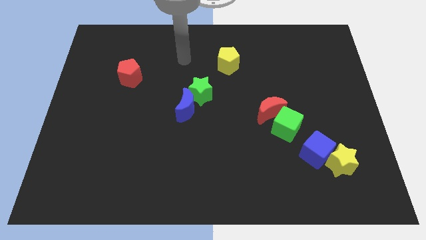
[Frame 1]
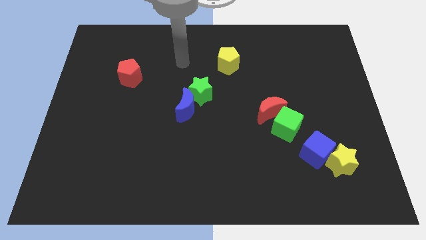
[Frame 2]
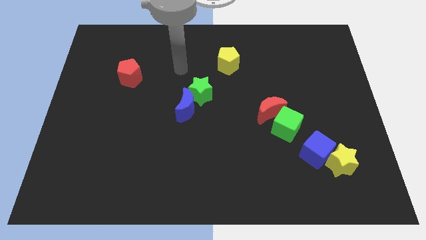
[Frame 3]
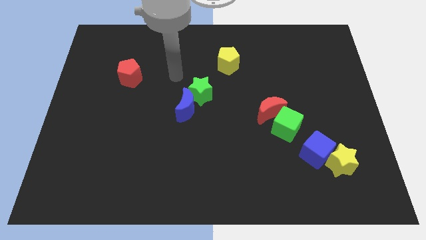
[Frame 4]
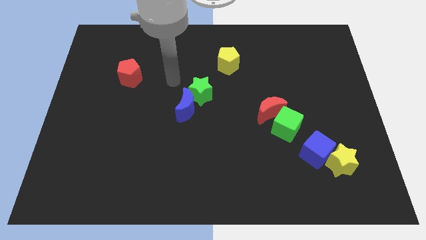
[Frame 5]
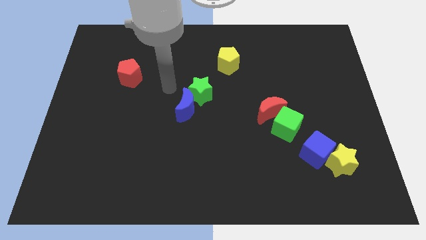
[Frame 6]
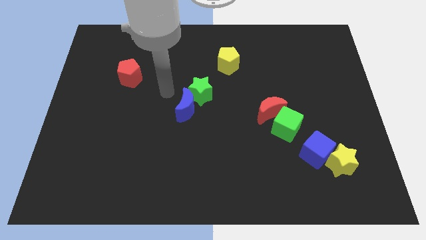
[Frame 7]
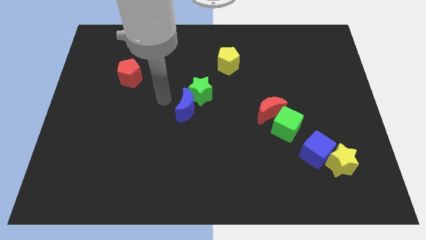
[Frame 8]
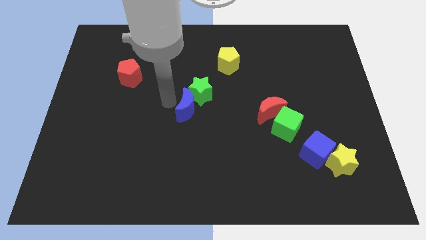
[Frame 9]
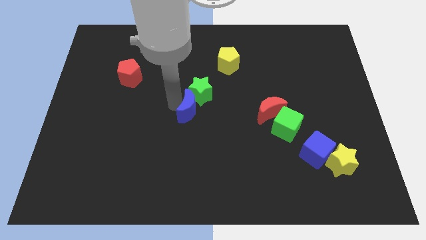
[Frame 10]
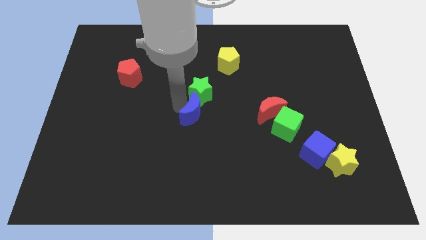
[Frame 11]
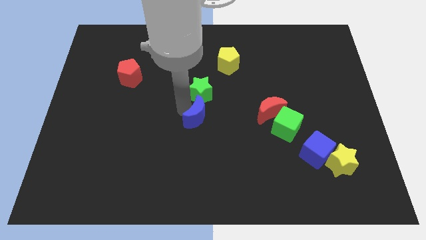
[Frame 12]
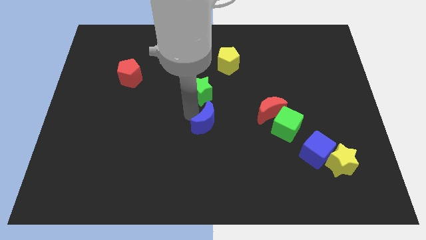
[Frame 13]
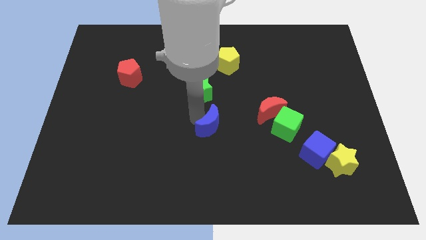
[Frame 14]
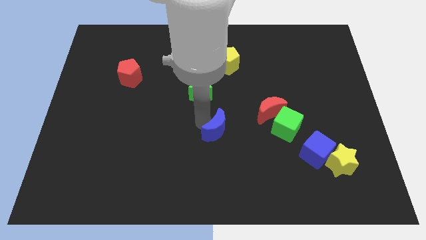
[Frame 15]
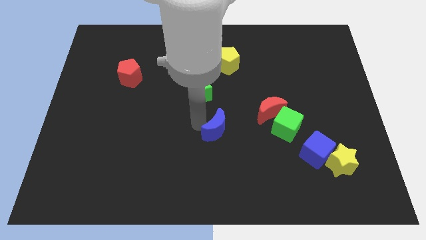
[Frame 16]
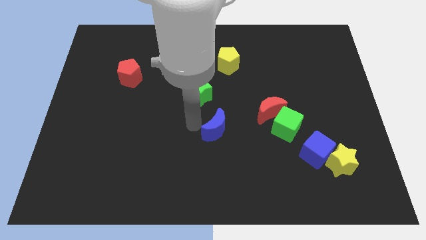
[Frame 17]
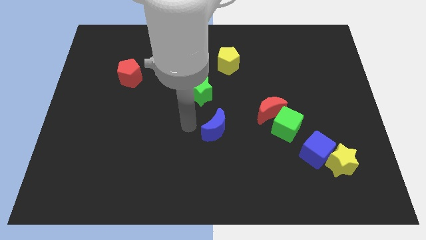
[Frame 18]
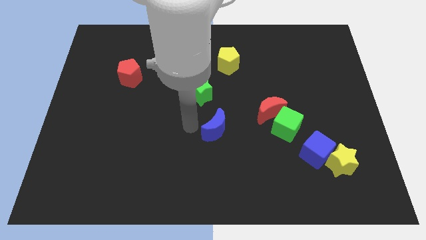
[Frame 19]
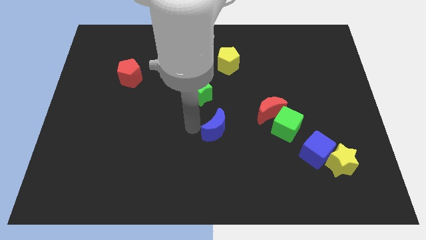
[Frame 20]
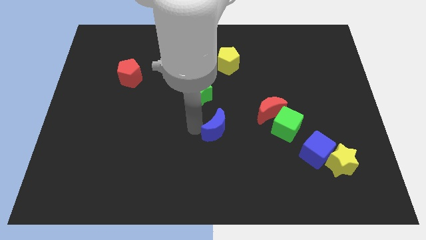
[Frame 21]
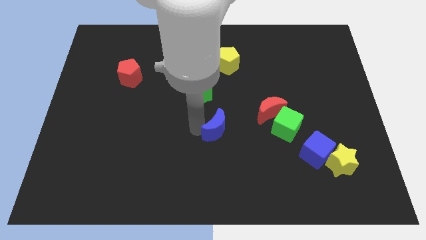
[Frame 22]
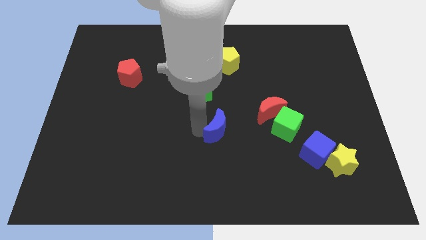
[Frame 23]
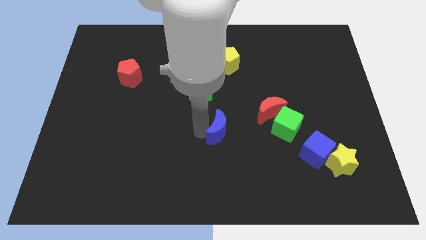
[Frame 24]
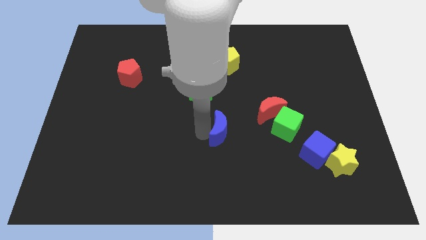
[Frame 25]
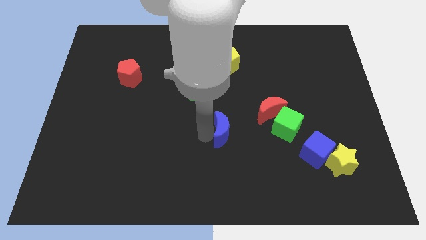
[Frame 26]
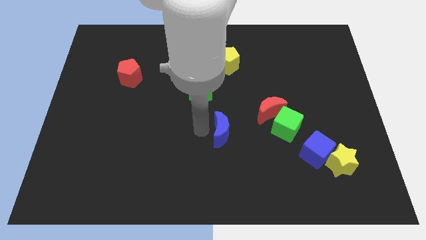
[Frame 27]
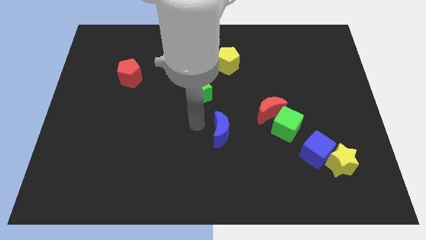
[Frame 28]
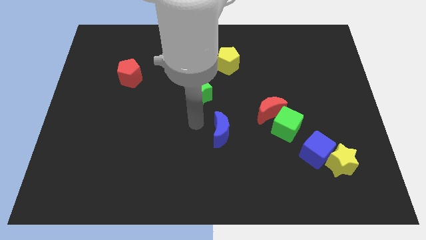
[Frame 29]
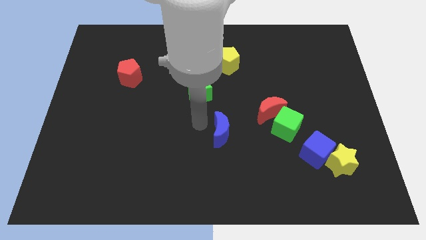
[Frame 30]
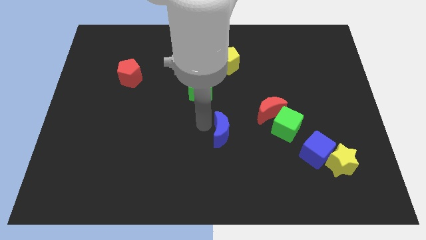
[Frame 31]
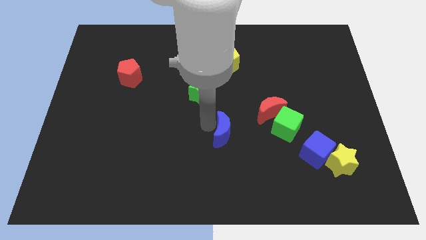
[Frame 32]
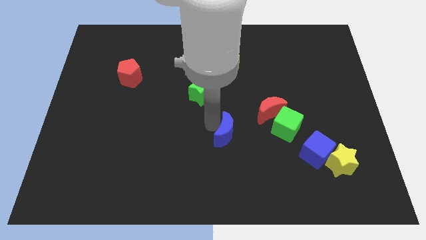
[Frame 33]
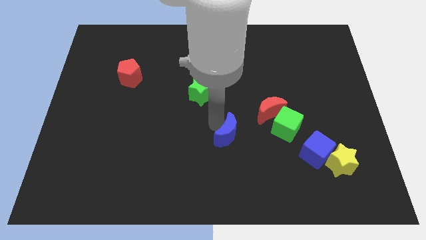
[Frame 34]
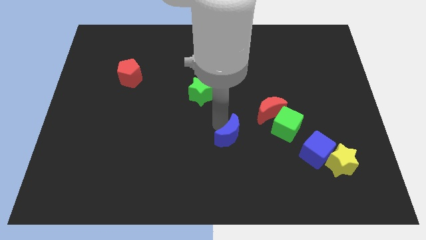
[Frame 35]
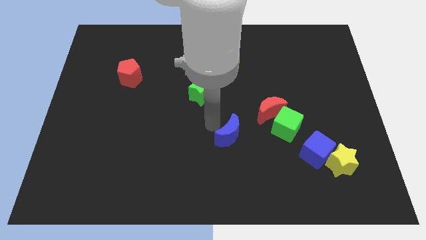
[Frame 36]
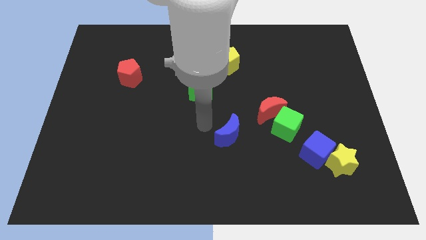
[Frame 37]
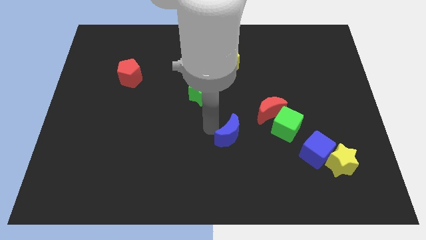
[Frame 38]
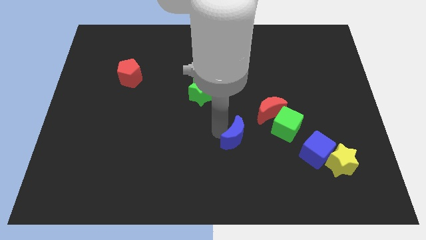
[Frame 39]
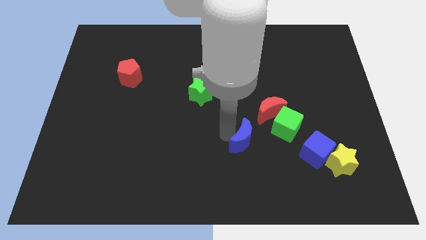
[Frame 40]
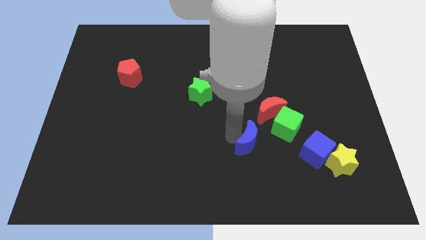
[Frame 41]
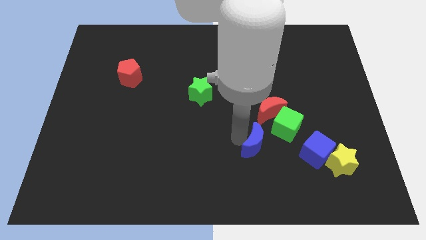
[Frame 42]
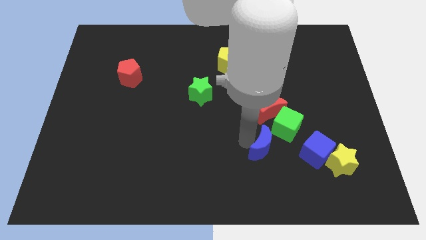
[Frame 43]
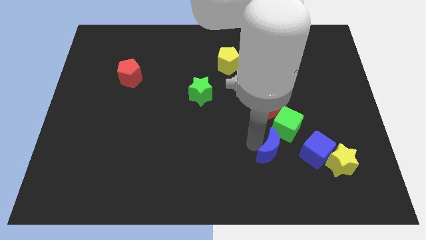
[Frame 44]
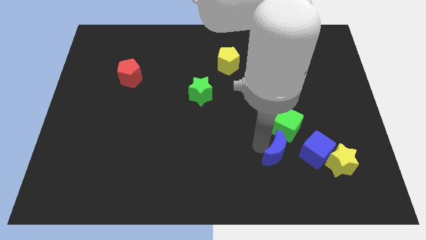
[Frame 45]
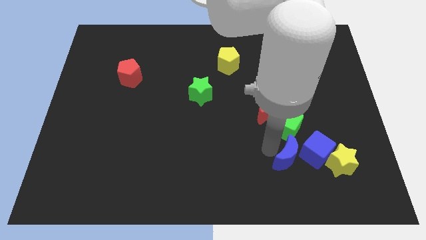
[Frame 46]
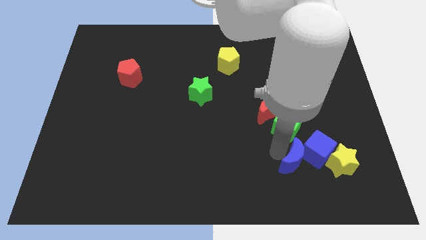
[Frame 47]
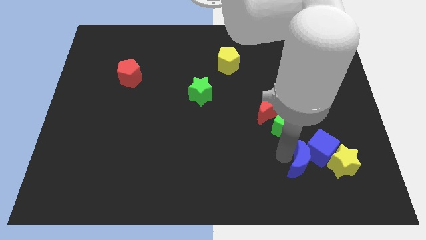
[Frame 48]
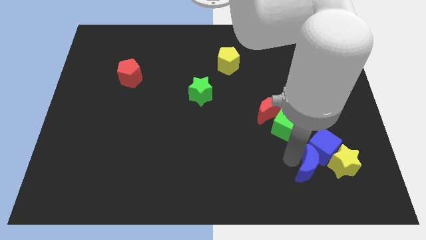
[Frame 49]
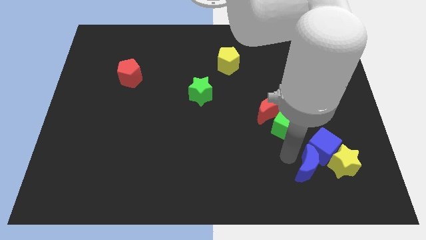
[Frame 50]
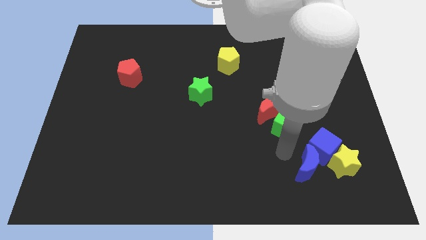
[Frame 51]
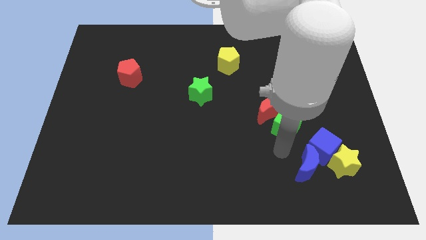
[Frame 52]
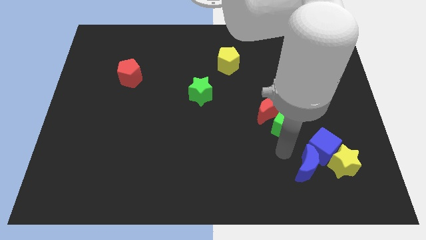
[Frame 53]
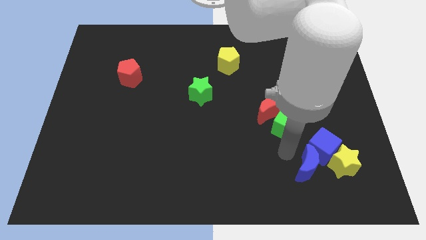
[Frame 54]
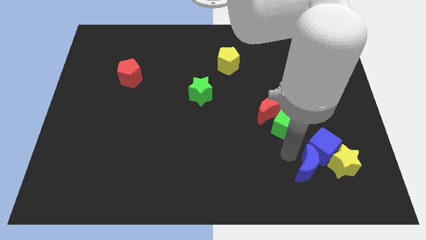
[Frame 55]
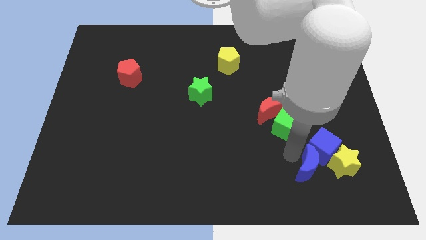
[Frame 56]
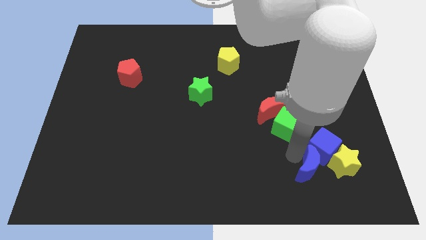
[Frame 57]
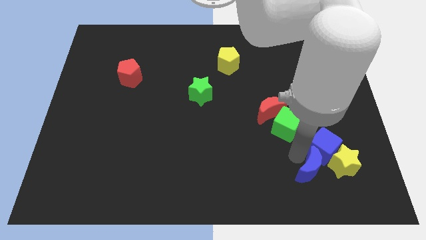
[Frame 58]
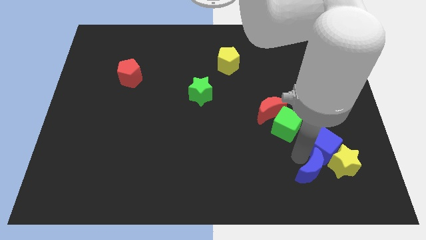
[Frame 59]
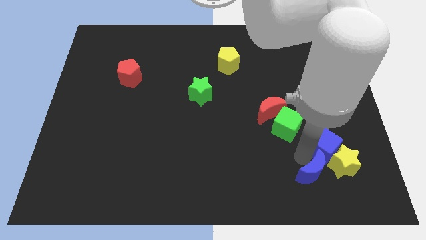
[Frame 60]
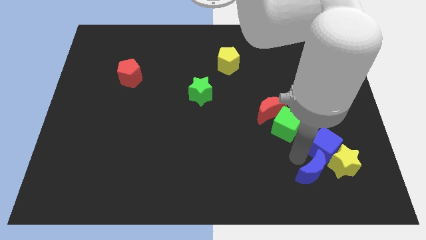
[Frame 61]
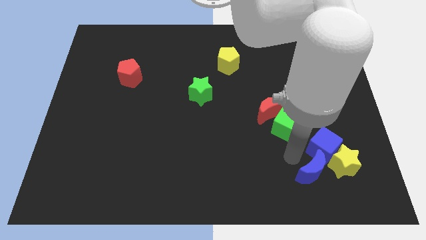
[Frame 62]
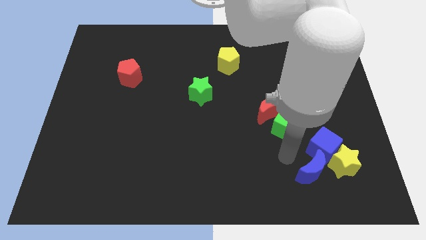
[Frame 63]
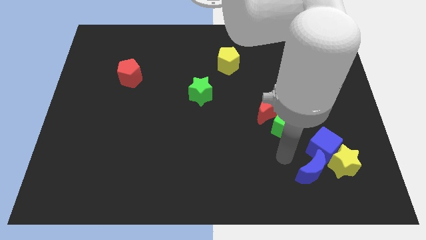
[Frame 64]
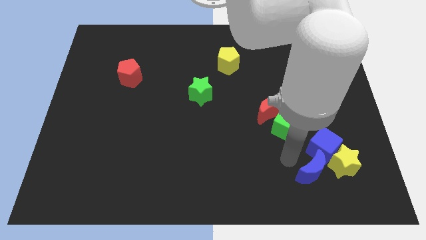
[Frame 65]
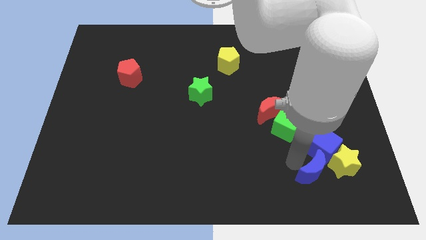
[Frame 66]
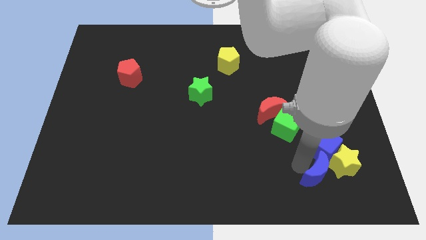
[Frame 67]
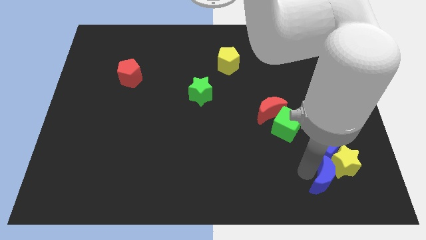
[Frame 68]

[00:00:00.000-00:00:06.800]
slide the blue moon to the yellow star
